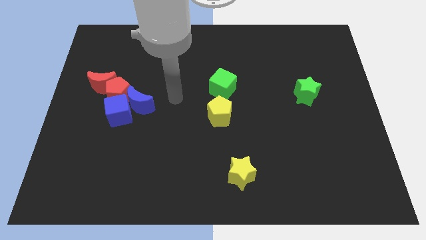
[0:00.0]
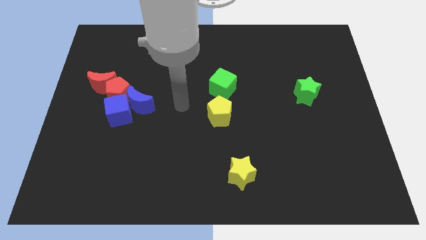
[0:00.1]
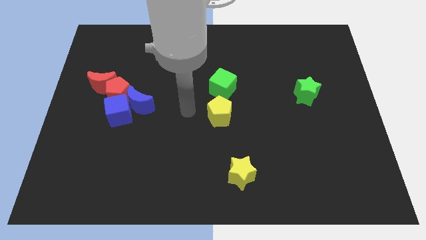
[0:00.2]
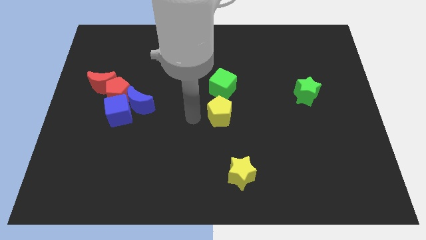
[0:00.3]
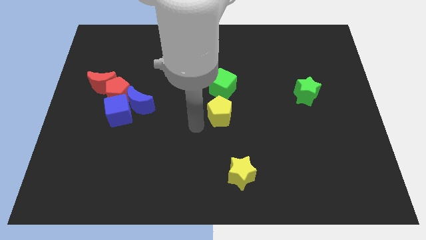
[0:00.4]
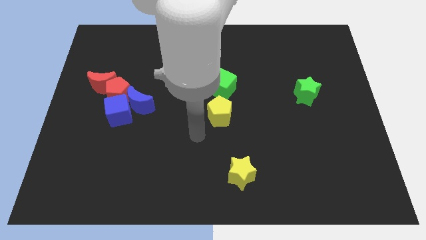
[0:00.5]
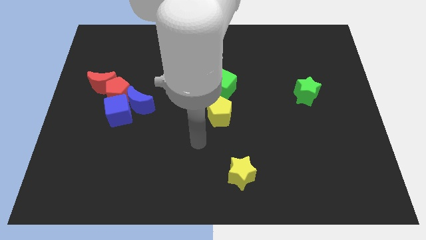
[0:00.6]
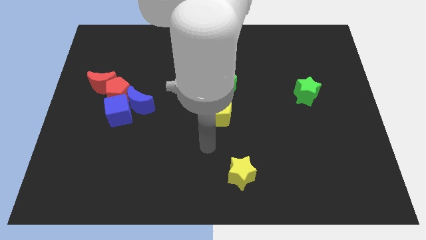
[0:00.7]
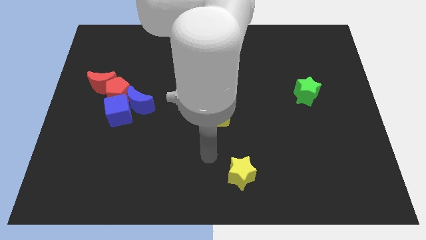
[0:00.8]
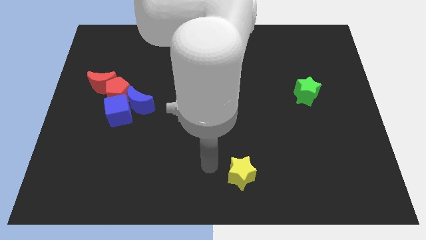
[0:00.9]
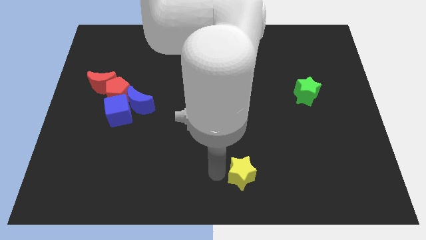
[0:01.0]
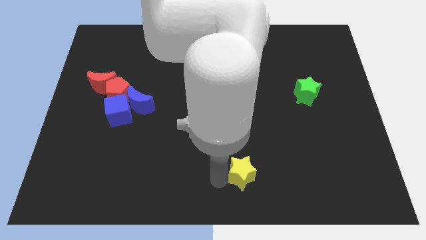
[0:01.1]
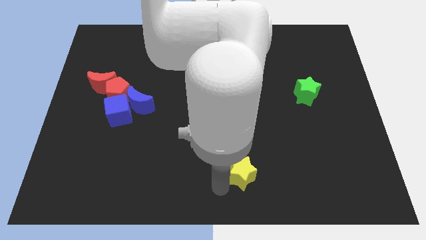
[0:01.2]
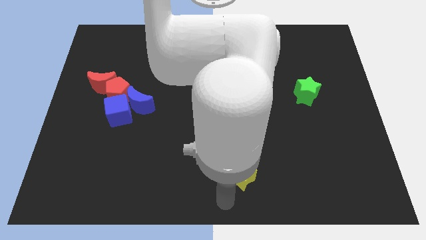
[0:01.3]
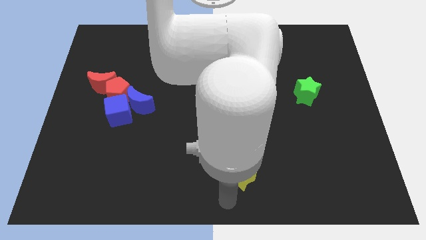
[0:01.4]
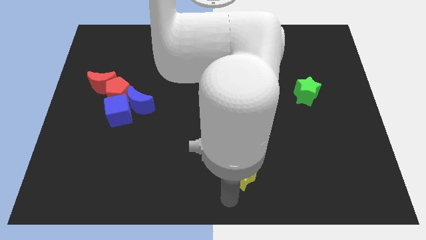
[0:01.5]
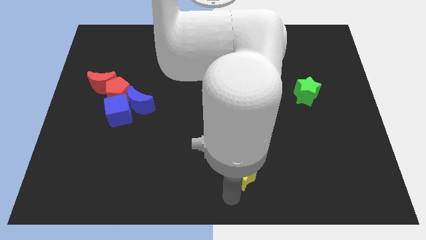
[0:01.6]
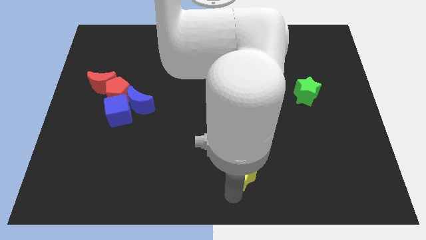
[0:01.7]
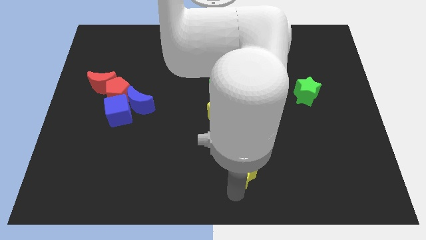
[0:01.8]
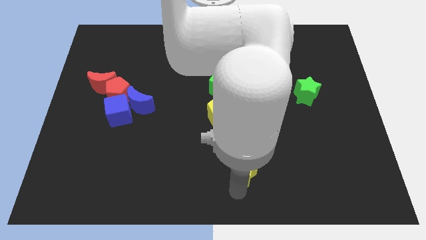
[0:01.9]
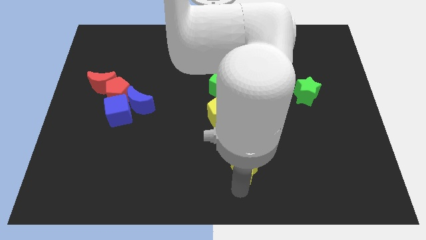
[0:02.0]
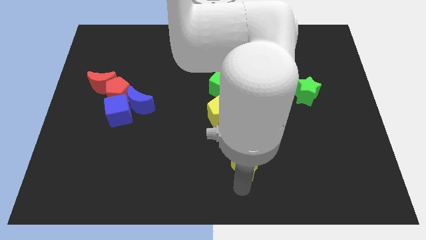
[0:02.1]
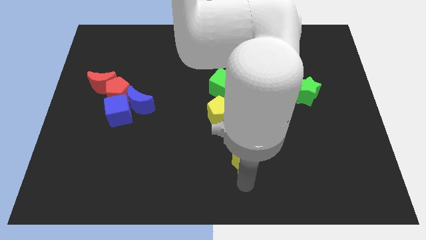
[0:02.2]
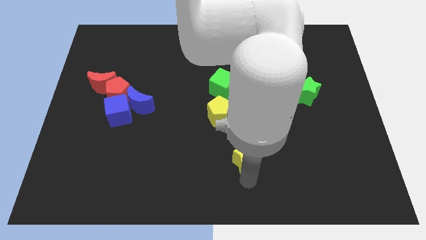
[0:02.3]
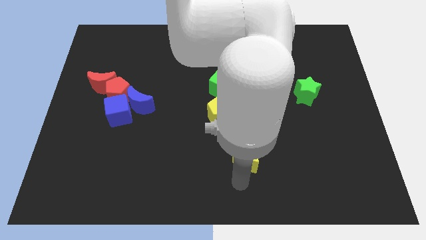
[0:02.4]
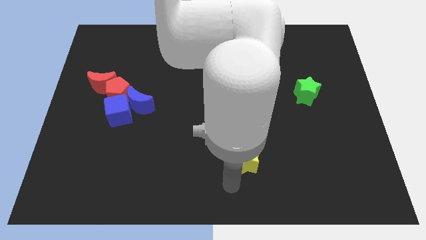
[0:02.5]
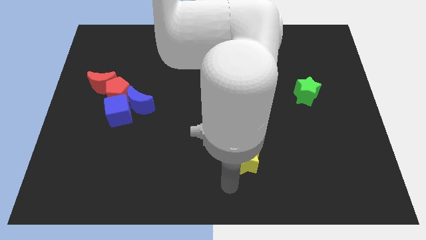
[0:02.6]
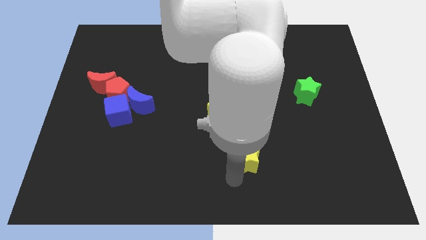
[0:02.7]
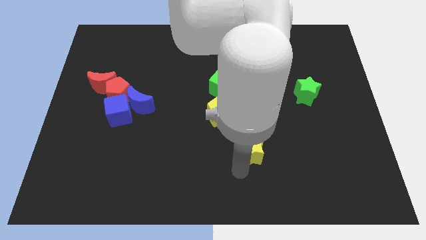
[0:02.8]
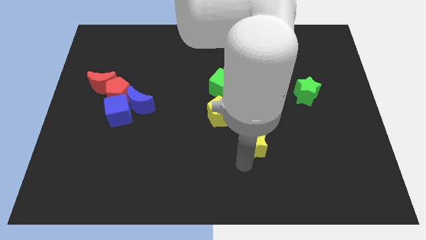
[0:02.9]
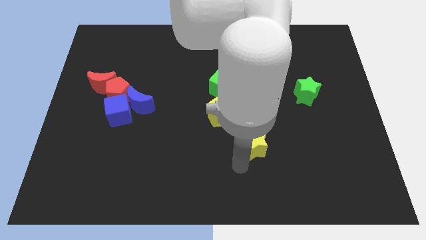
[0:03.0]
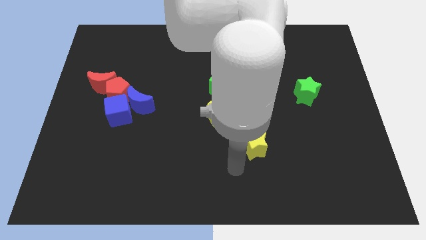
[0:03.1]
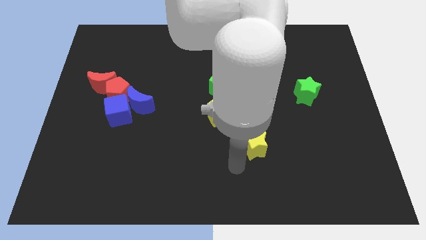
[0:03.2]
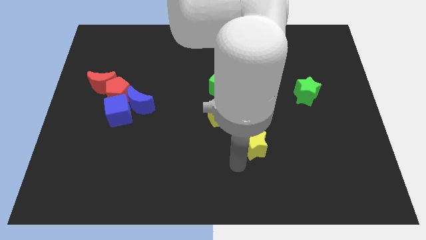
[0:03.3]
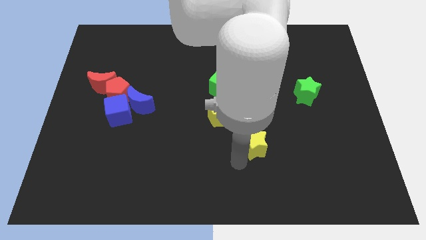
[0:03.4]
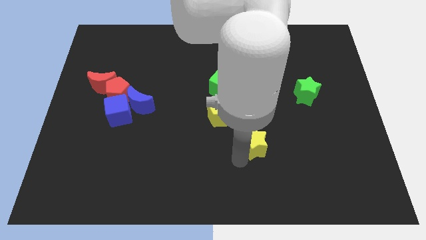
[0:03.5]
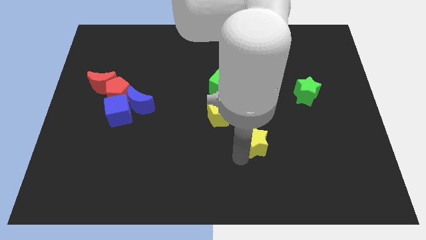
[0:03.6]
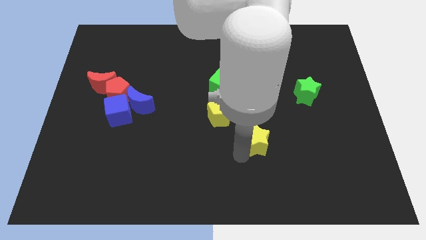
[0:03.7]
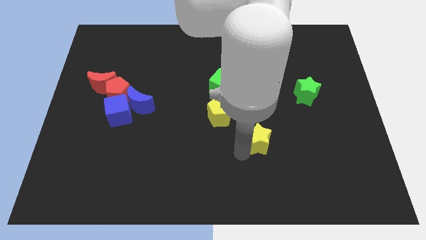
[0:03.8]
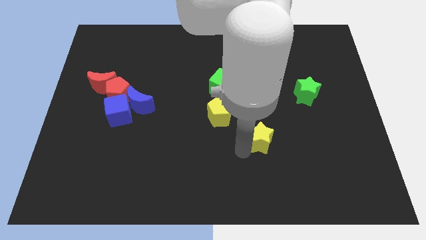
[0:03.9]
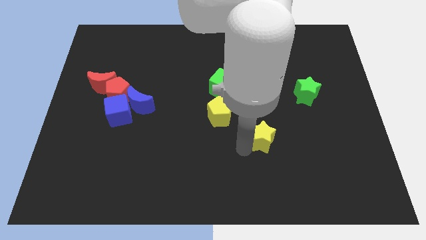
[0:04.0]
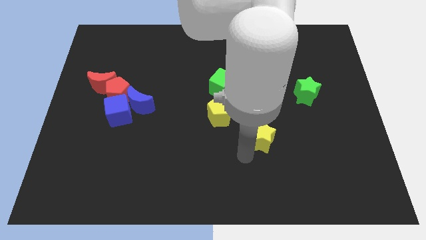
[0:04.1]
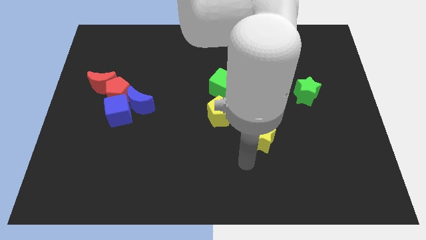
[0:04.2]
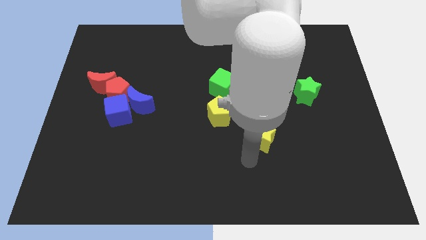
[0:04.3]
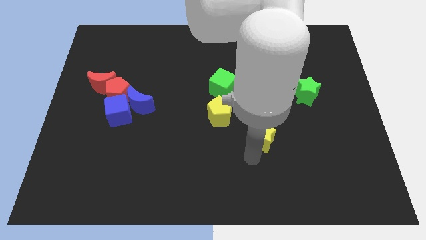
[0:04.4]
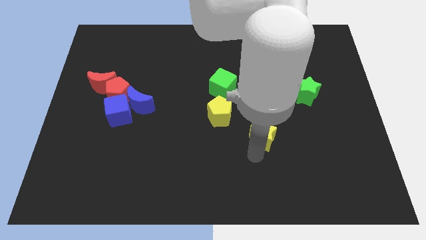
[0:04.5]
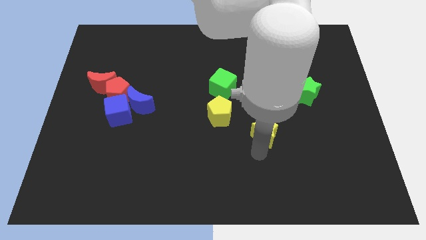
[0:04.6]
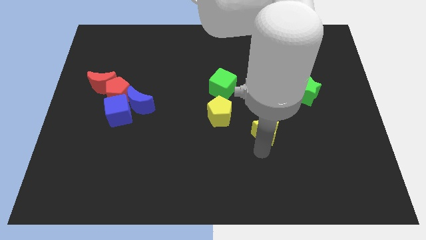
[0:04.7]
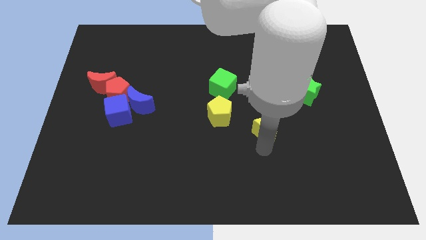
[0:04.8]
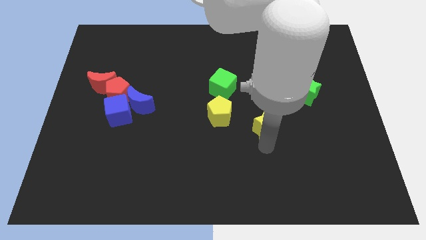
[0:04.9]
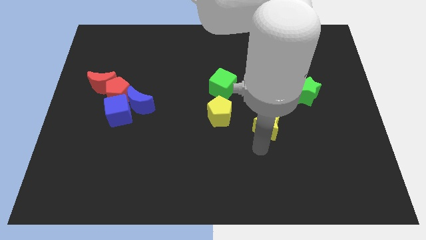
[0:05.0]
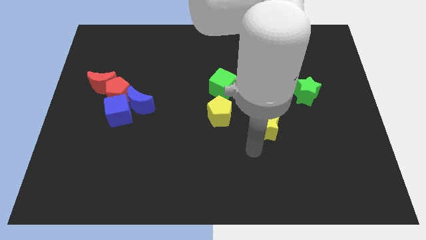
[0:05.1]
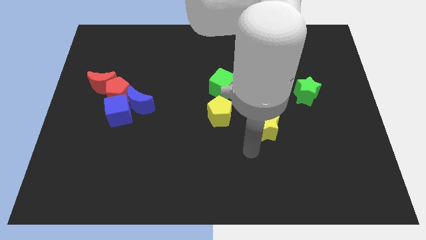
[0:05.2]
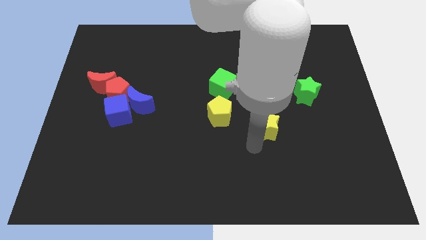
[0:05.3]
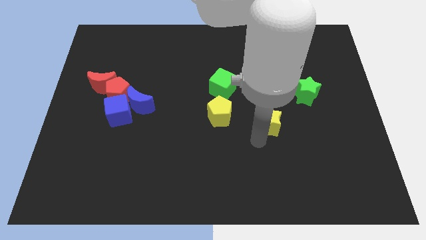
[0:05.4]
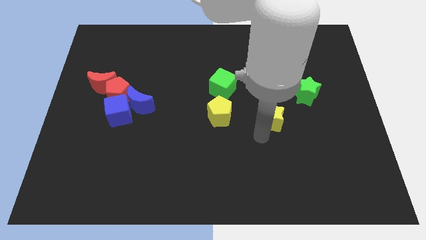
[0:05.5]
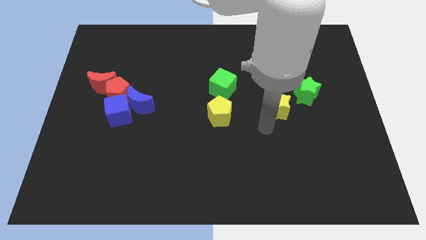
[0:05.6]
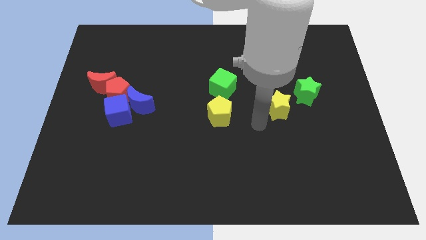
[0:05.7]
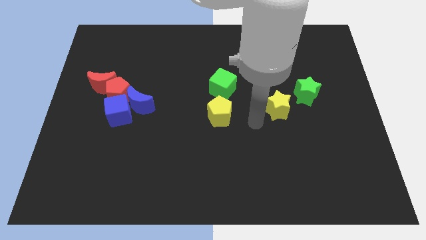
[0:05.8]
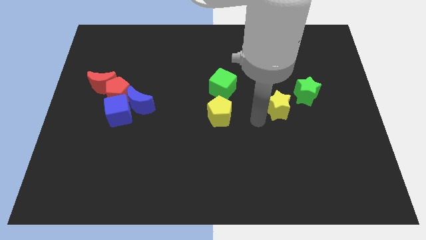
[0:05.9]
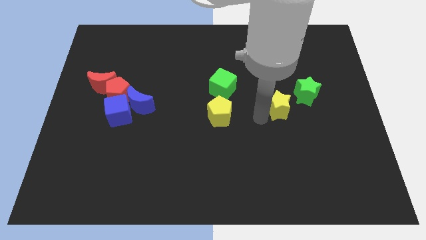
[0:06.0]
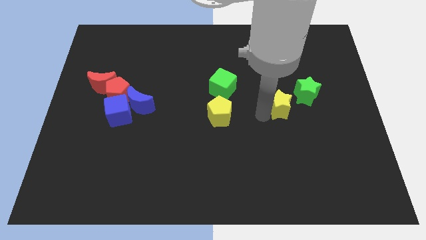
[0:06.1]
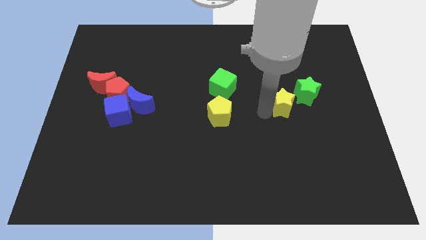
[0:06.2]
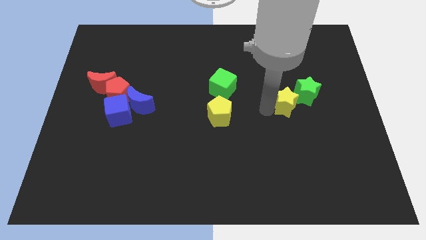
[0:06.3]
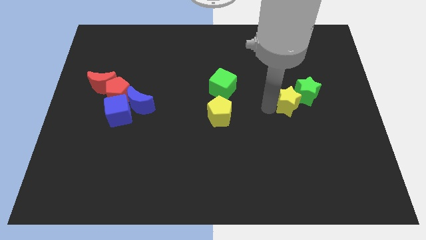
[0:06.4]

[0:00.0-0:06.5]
move the yellow star towards the green star

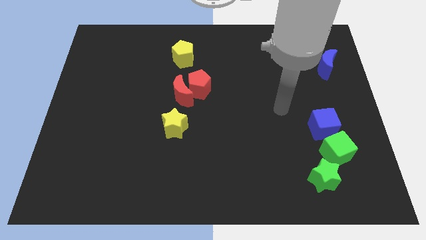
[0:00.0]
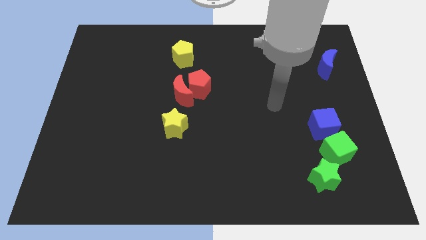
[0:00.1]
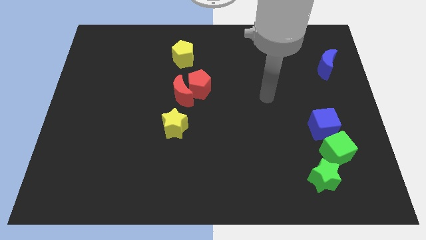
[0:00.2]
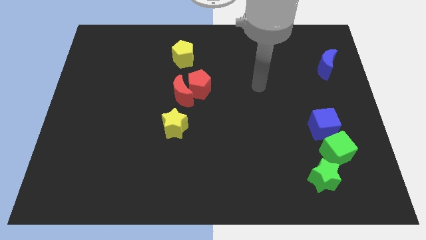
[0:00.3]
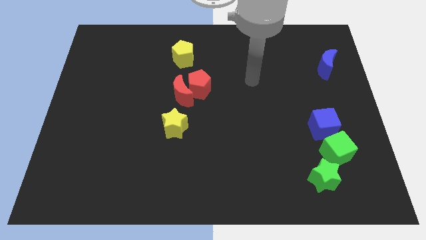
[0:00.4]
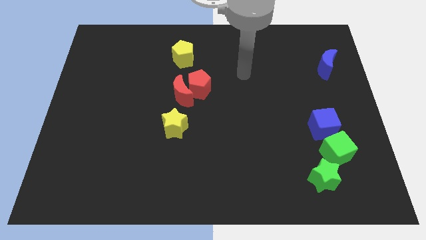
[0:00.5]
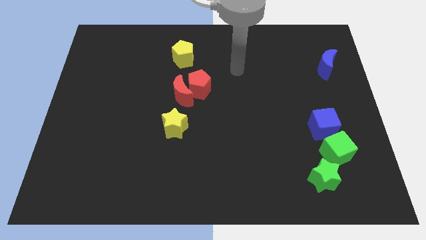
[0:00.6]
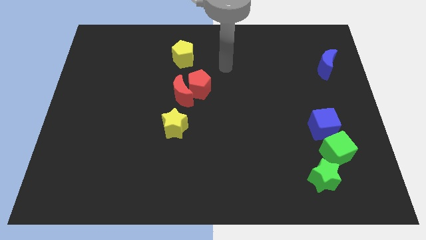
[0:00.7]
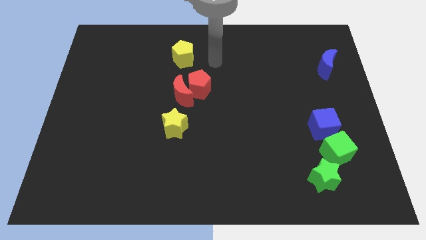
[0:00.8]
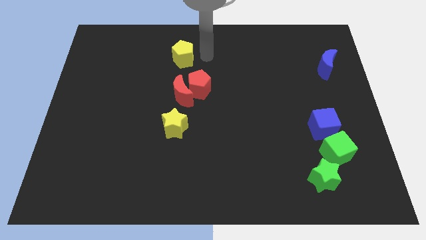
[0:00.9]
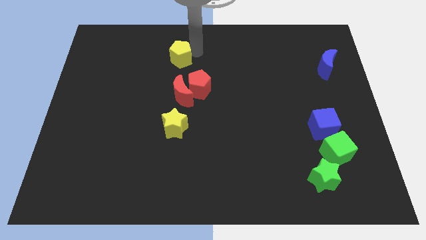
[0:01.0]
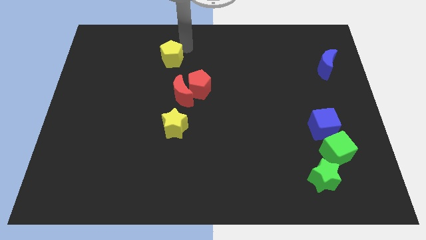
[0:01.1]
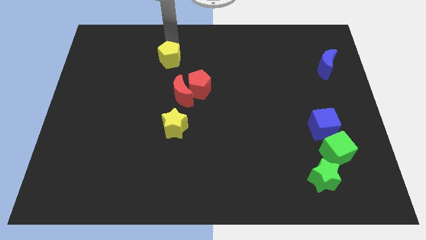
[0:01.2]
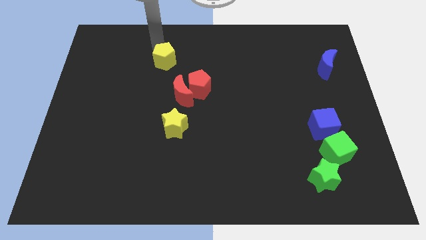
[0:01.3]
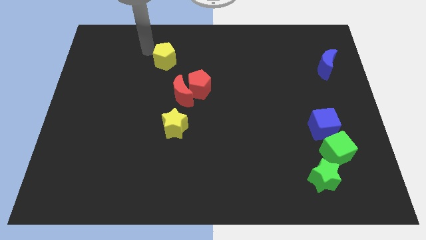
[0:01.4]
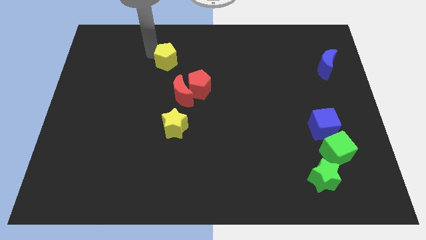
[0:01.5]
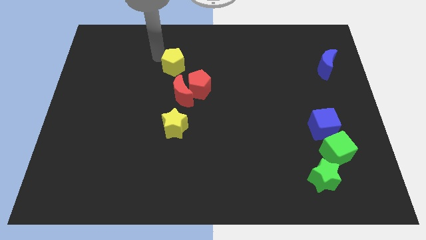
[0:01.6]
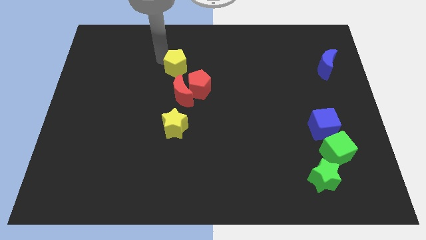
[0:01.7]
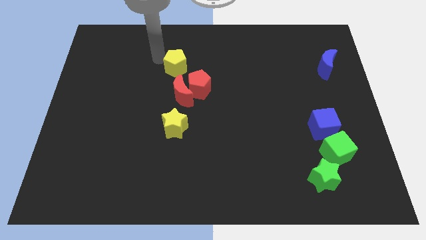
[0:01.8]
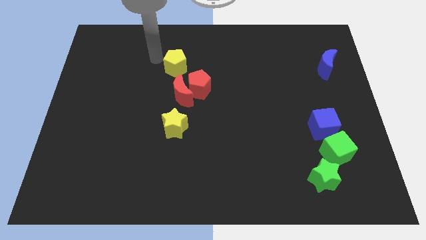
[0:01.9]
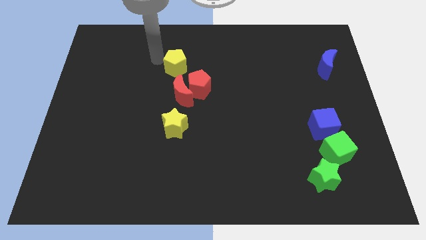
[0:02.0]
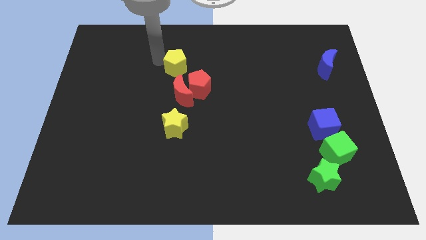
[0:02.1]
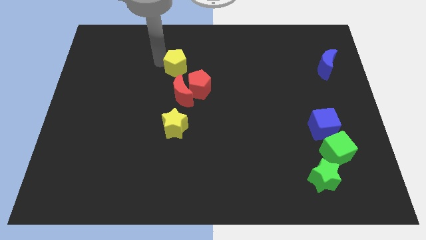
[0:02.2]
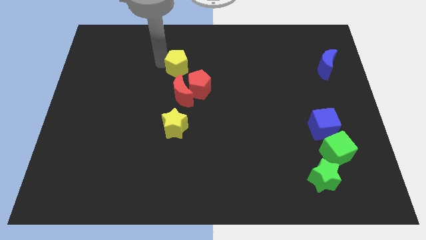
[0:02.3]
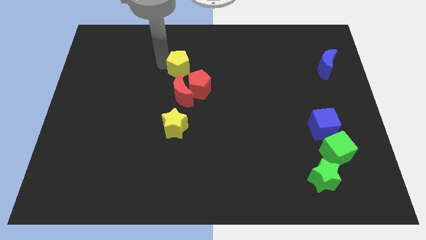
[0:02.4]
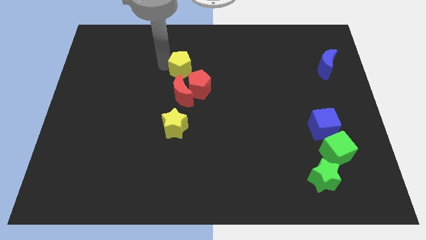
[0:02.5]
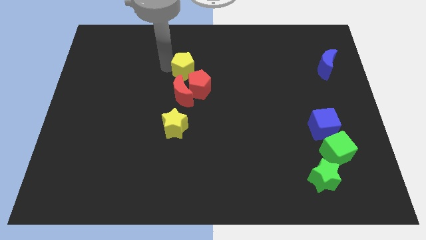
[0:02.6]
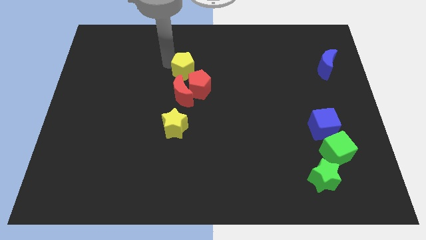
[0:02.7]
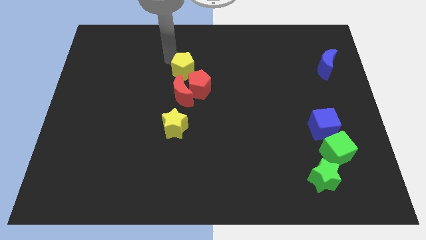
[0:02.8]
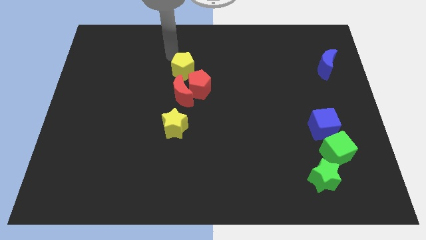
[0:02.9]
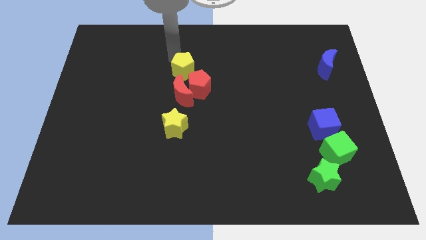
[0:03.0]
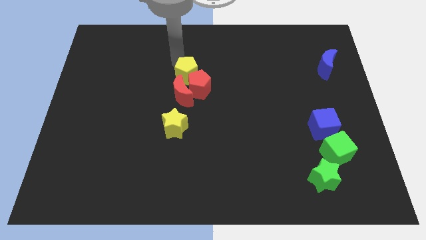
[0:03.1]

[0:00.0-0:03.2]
slide the yellow pentagon towards the red pentagon
